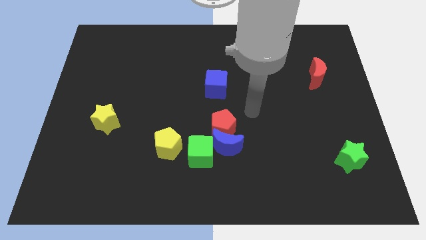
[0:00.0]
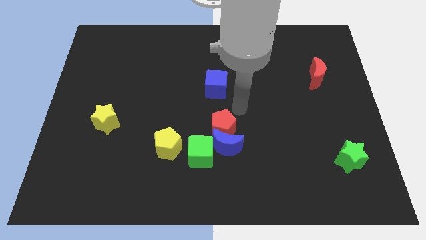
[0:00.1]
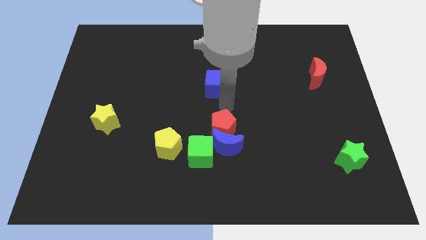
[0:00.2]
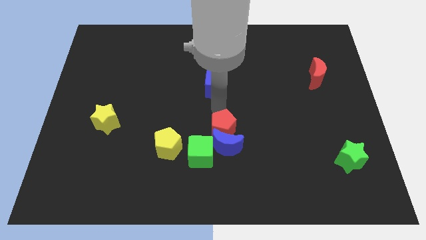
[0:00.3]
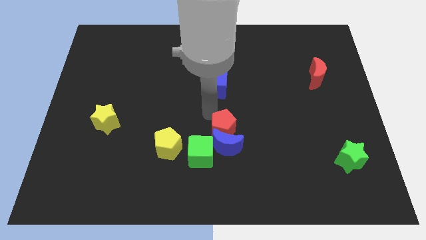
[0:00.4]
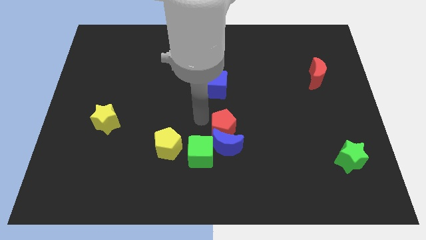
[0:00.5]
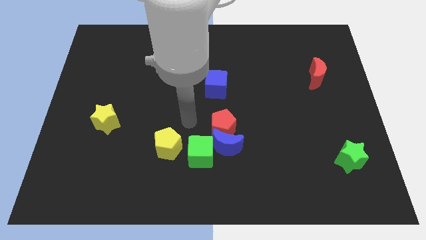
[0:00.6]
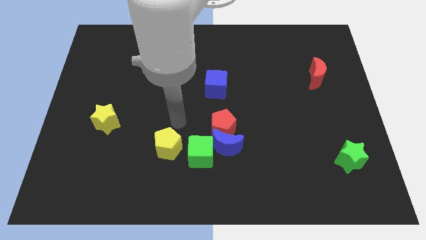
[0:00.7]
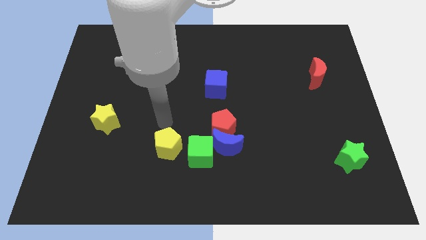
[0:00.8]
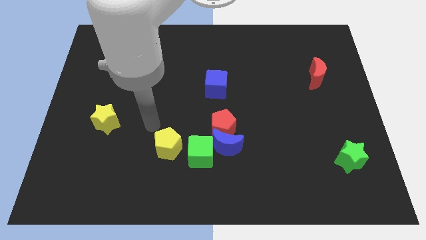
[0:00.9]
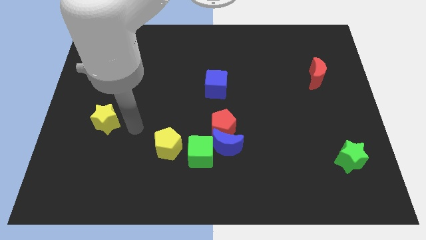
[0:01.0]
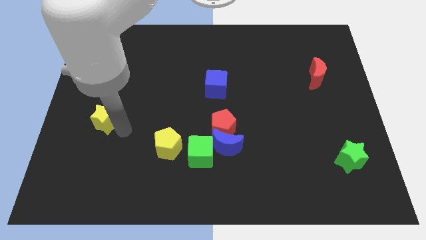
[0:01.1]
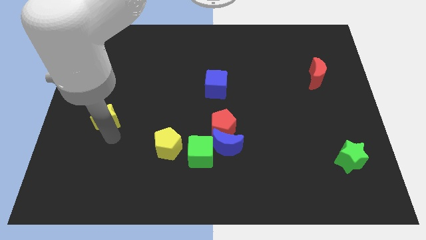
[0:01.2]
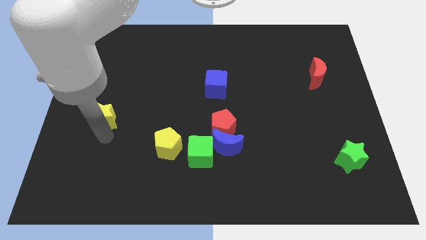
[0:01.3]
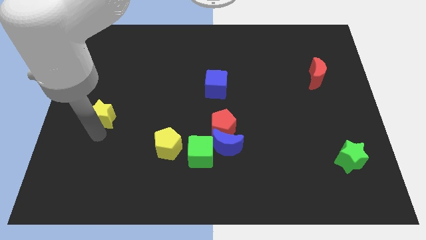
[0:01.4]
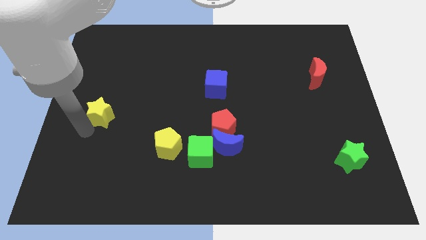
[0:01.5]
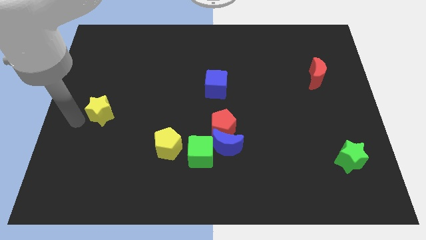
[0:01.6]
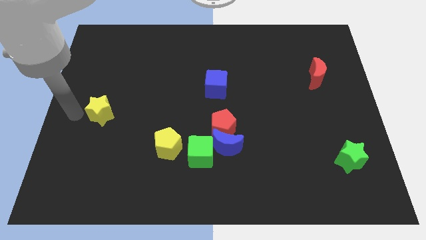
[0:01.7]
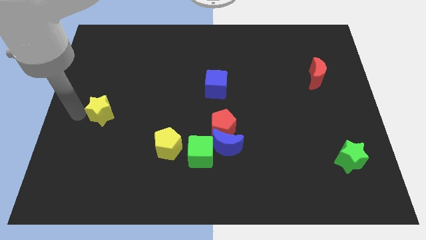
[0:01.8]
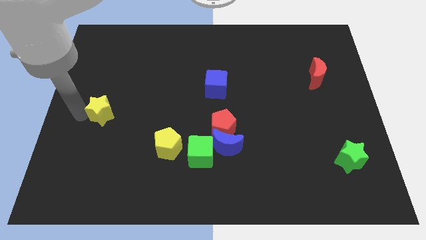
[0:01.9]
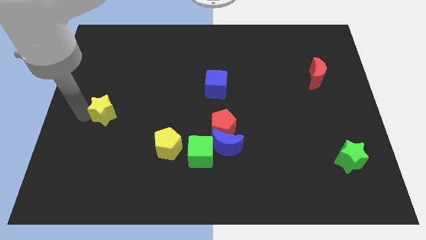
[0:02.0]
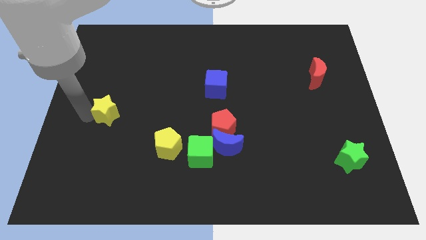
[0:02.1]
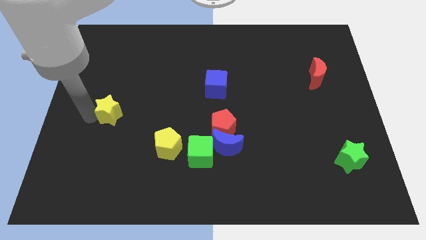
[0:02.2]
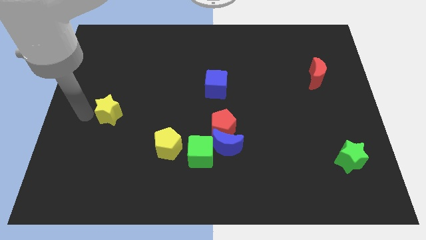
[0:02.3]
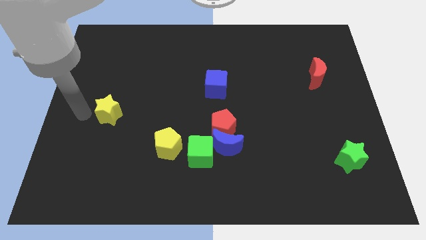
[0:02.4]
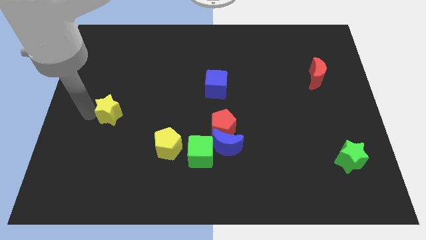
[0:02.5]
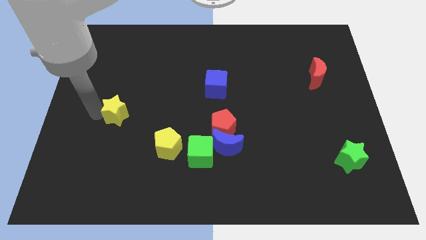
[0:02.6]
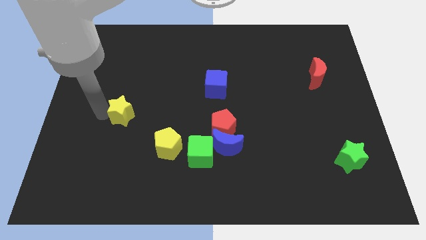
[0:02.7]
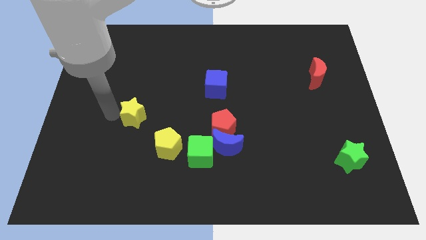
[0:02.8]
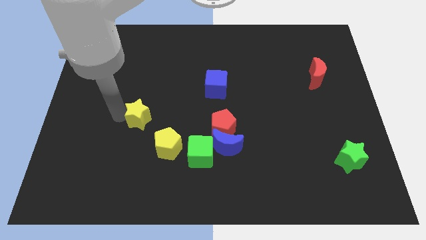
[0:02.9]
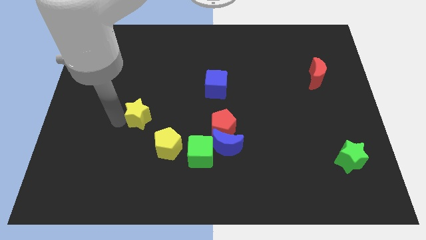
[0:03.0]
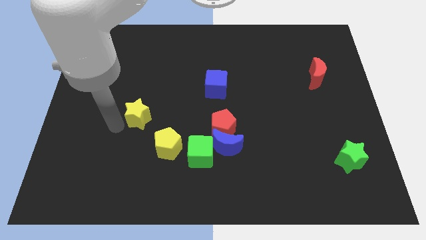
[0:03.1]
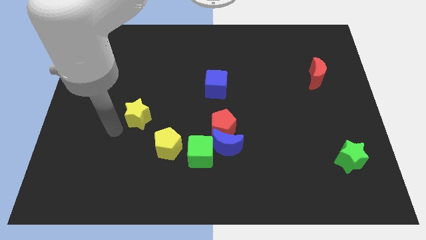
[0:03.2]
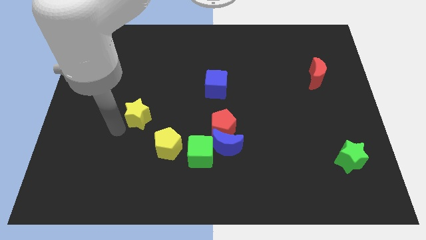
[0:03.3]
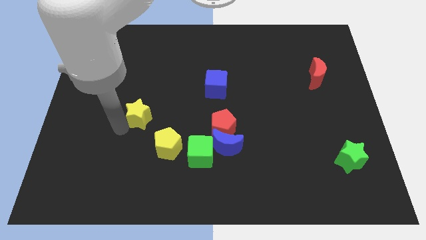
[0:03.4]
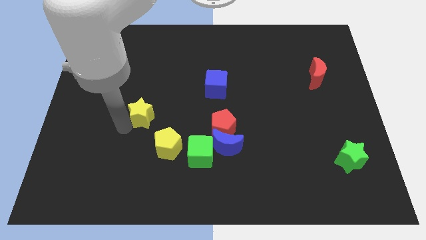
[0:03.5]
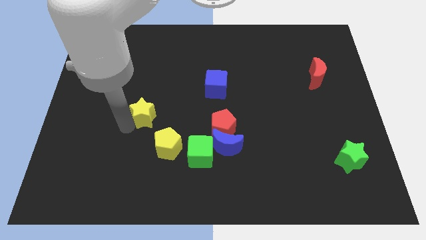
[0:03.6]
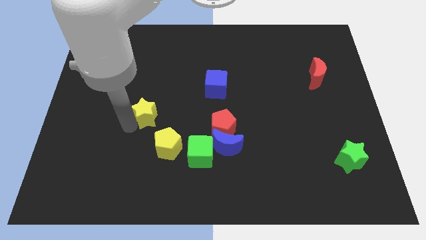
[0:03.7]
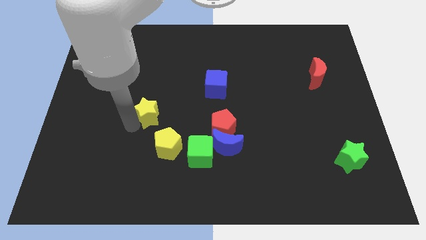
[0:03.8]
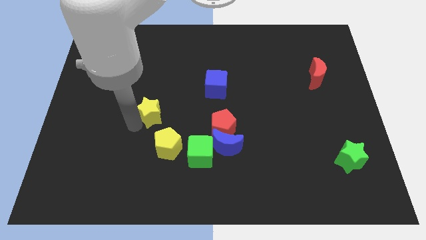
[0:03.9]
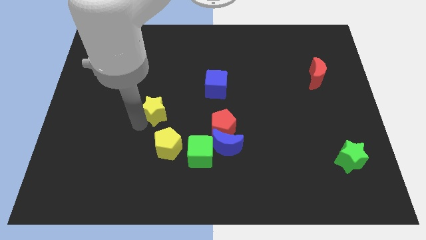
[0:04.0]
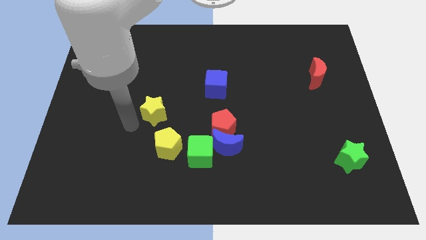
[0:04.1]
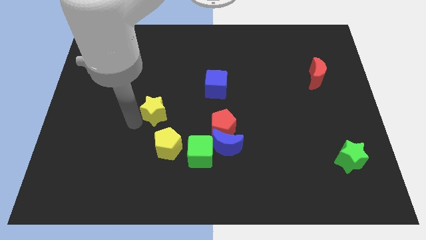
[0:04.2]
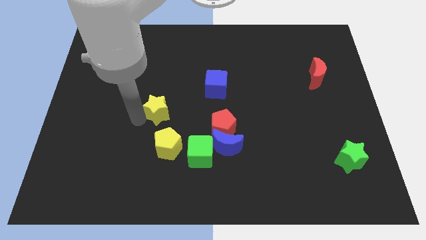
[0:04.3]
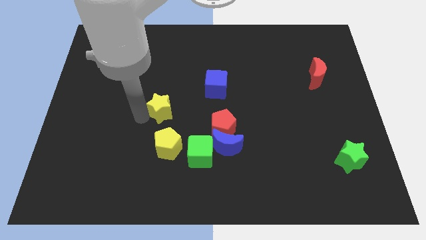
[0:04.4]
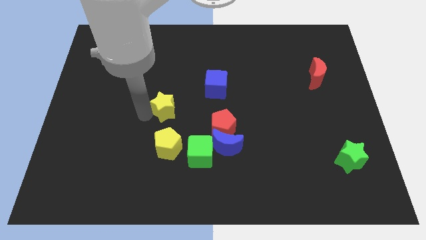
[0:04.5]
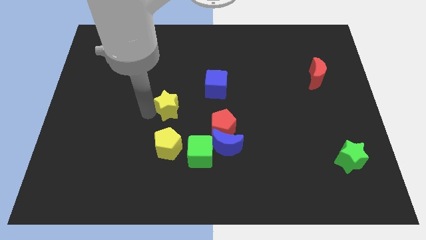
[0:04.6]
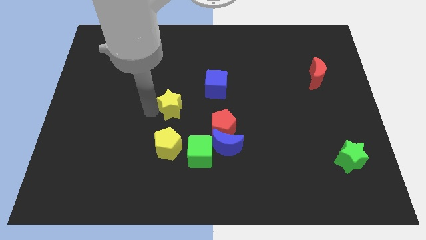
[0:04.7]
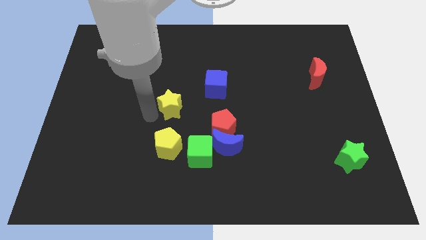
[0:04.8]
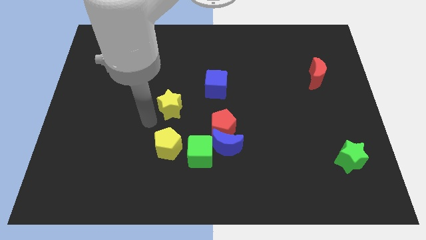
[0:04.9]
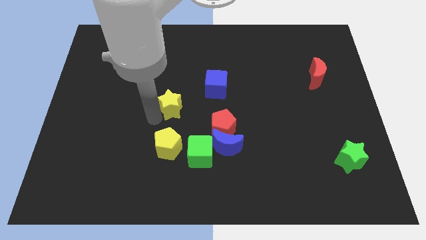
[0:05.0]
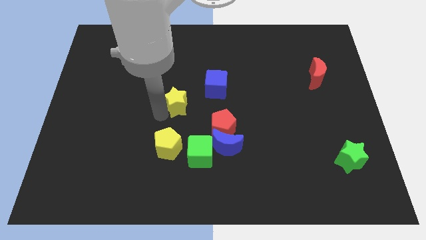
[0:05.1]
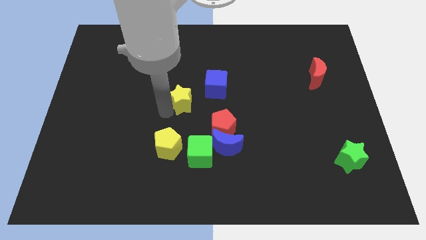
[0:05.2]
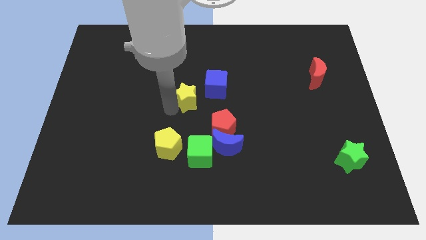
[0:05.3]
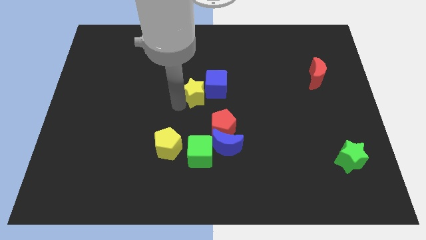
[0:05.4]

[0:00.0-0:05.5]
slide the yellow star close to the blue cube

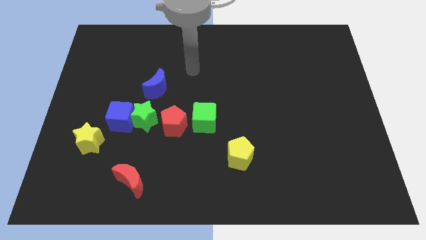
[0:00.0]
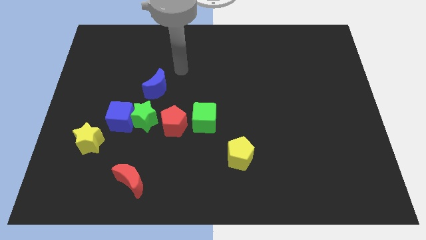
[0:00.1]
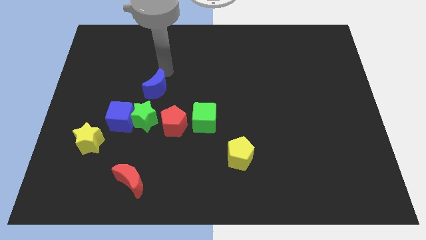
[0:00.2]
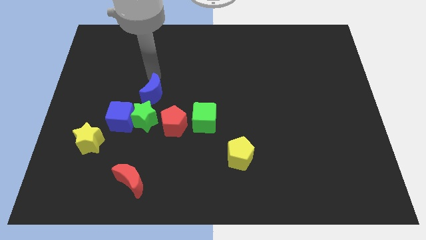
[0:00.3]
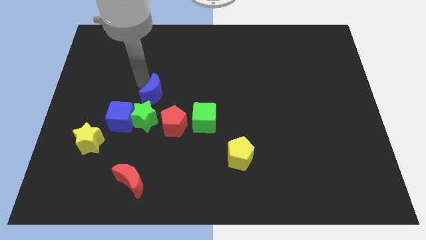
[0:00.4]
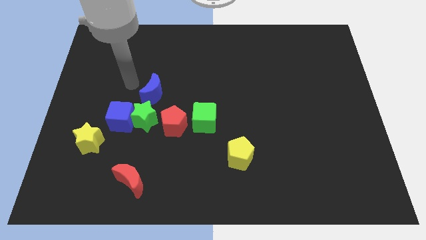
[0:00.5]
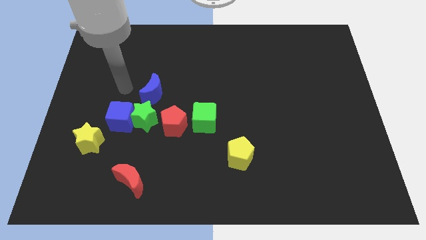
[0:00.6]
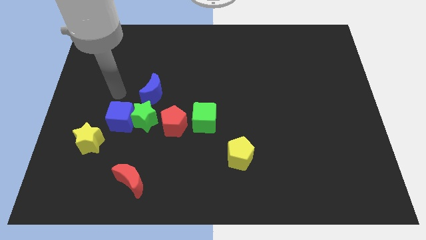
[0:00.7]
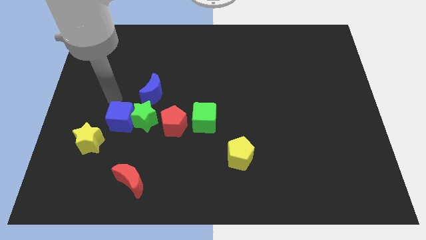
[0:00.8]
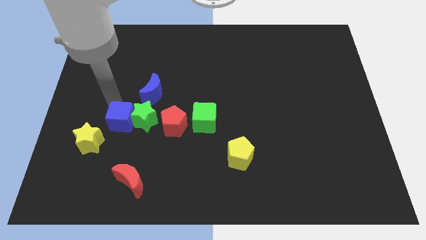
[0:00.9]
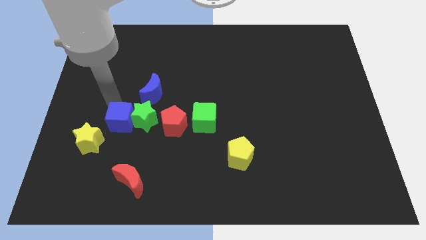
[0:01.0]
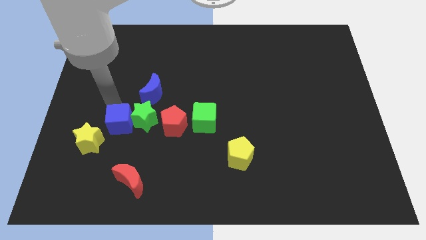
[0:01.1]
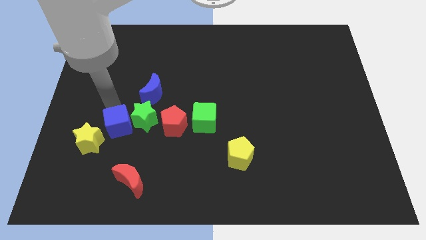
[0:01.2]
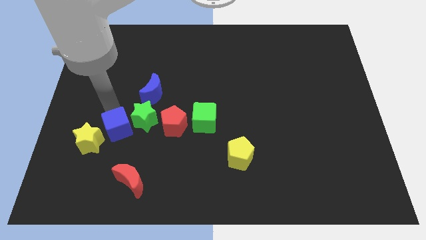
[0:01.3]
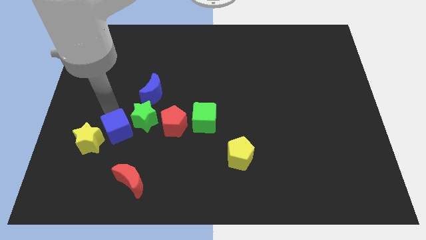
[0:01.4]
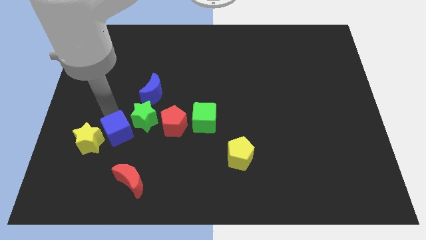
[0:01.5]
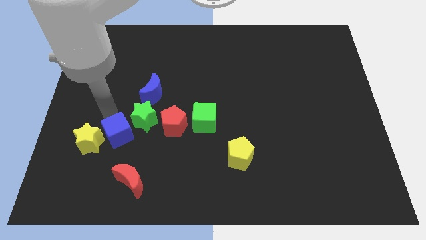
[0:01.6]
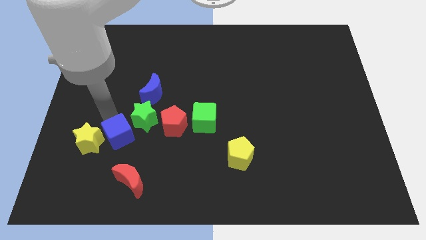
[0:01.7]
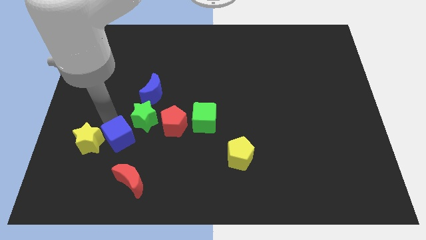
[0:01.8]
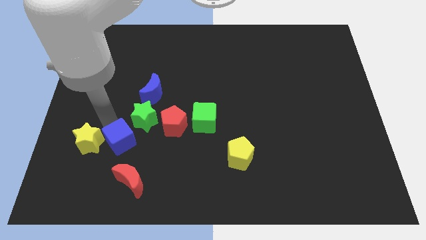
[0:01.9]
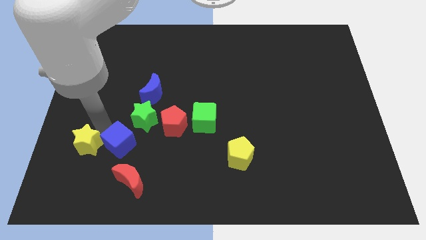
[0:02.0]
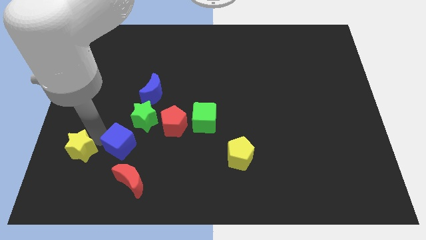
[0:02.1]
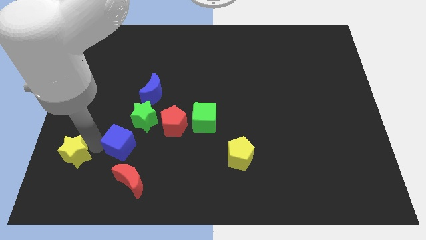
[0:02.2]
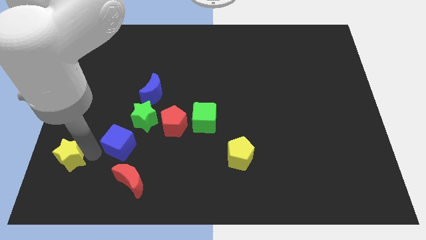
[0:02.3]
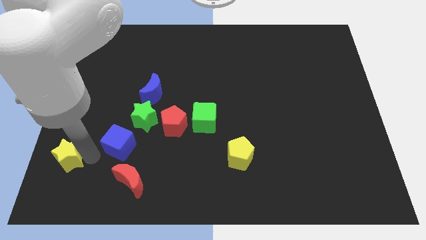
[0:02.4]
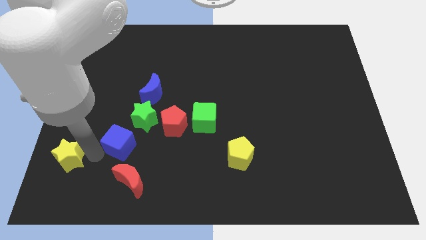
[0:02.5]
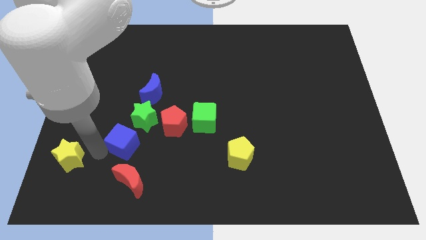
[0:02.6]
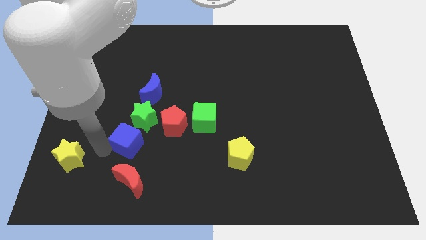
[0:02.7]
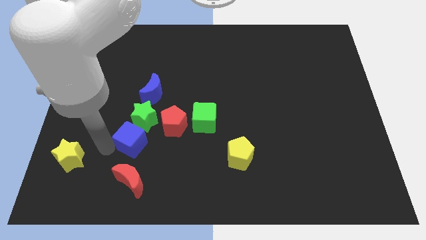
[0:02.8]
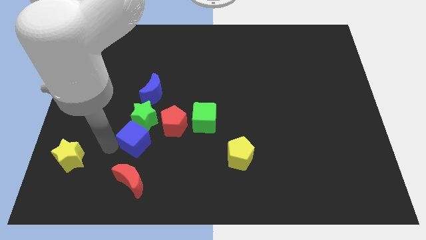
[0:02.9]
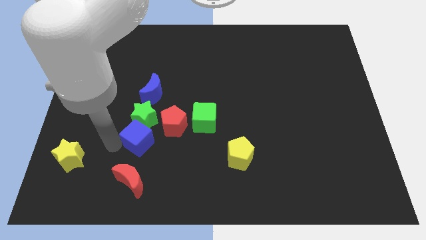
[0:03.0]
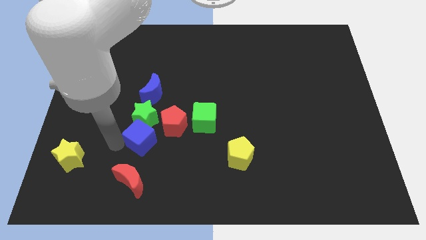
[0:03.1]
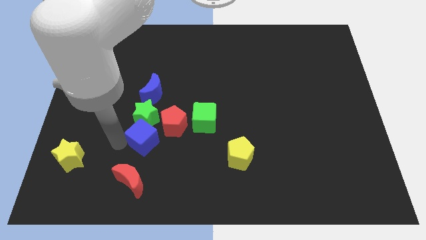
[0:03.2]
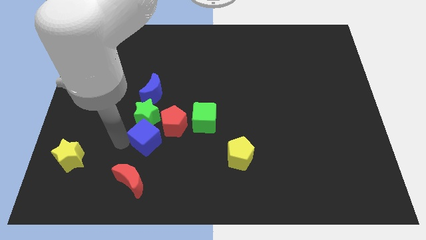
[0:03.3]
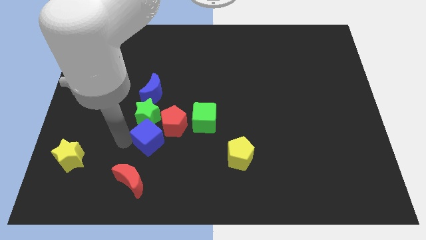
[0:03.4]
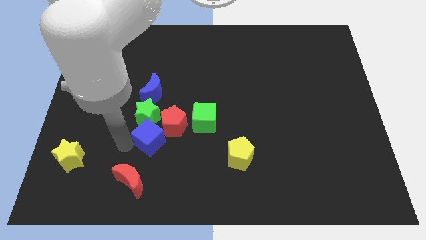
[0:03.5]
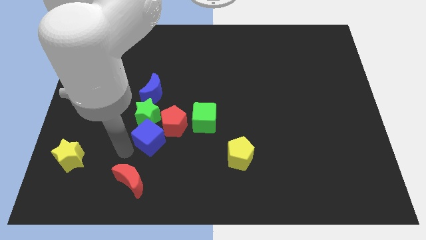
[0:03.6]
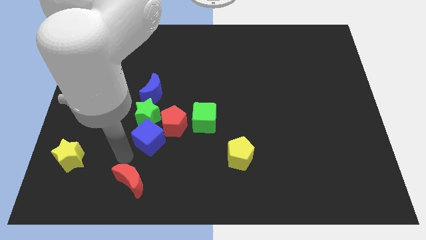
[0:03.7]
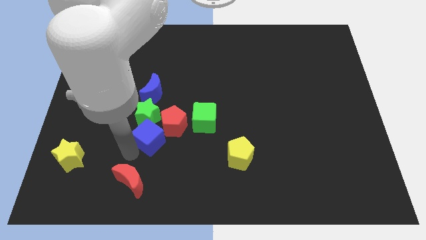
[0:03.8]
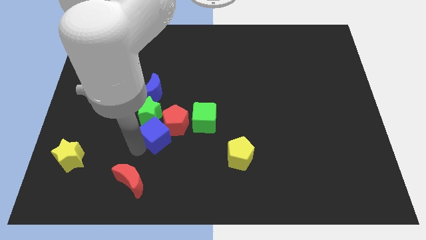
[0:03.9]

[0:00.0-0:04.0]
move the blue cube to the red pentagon
